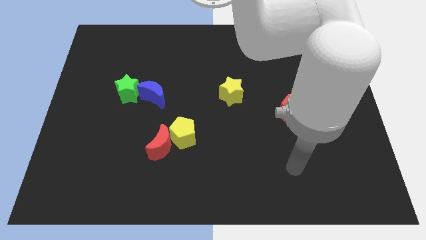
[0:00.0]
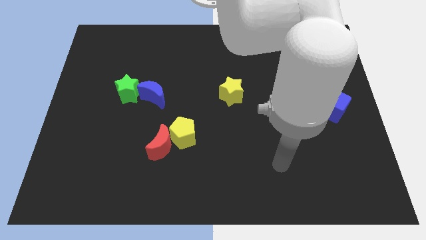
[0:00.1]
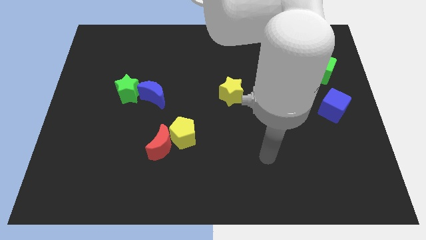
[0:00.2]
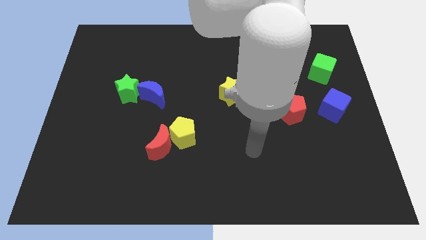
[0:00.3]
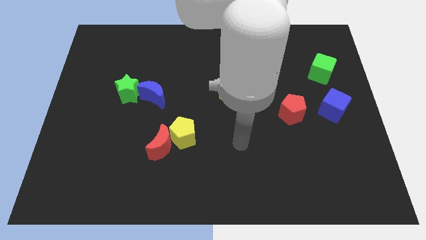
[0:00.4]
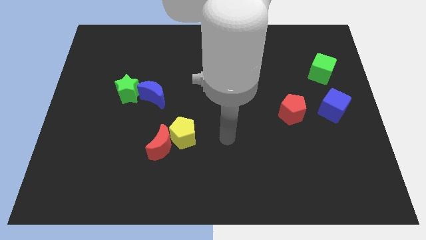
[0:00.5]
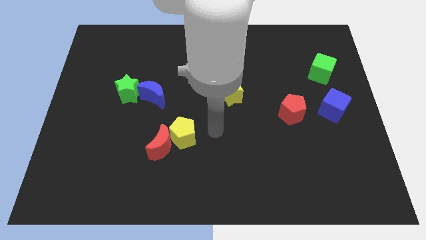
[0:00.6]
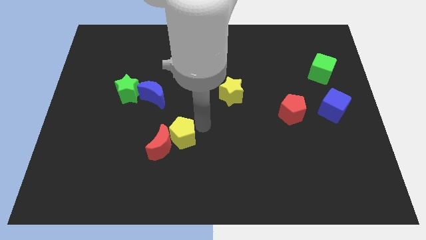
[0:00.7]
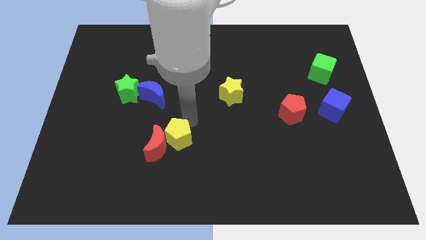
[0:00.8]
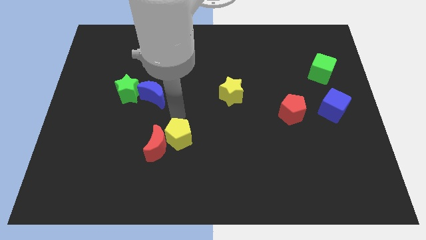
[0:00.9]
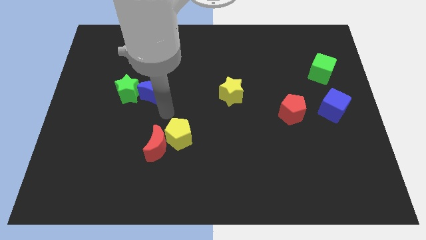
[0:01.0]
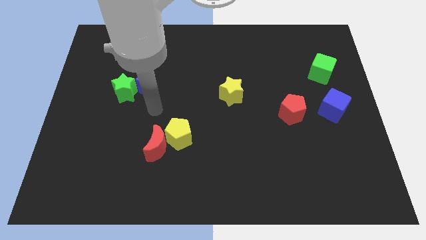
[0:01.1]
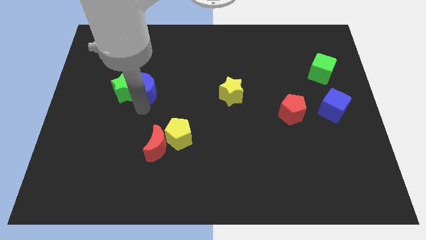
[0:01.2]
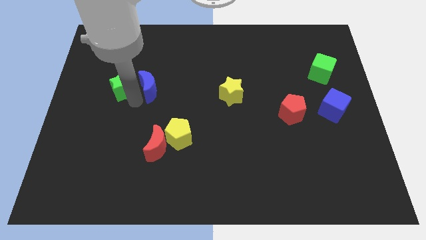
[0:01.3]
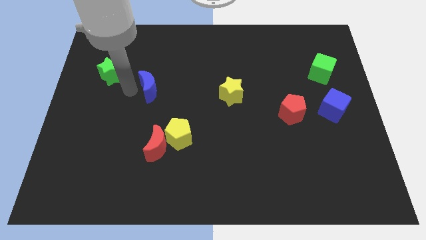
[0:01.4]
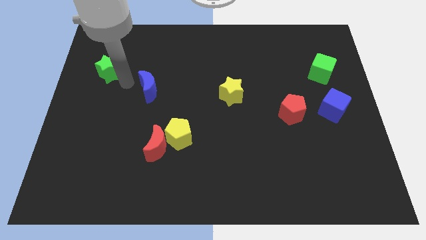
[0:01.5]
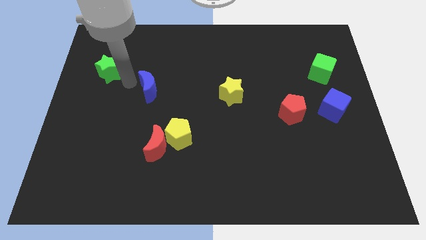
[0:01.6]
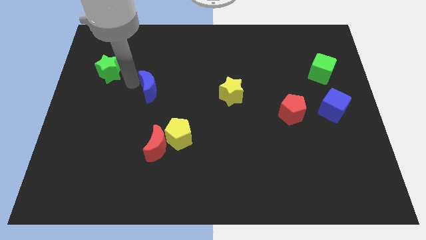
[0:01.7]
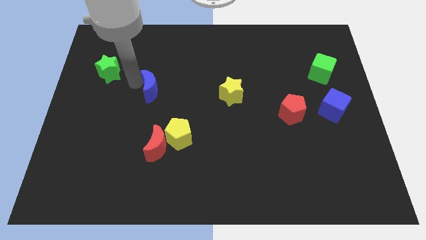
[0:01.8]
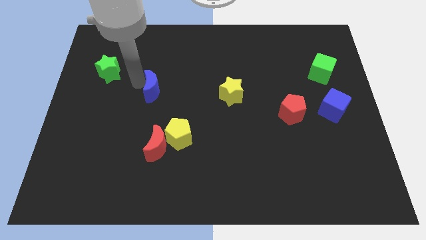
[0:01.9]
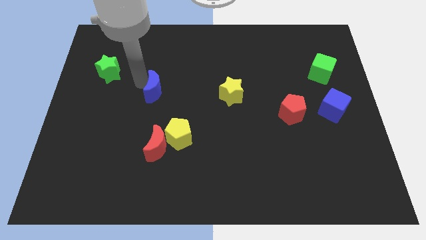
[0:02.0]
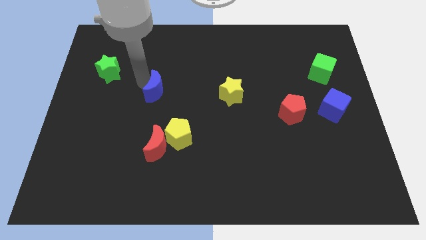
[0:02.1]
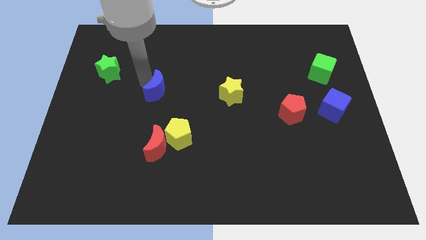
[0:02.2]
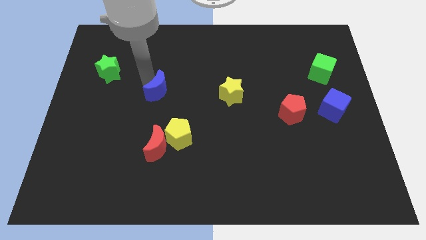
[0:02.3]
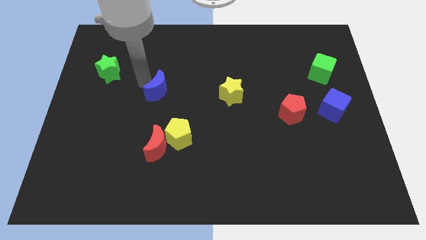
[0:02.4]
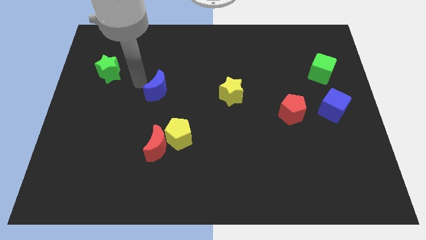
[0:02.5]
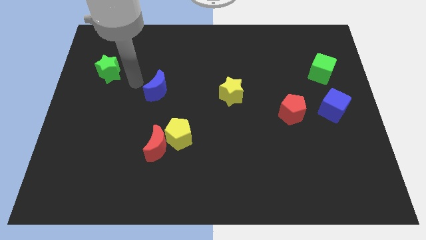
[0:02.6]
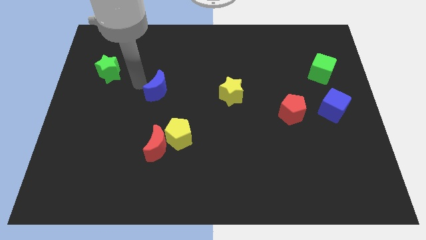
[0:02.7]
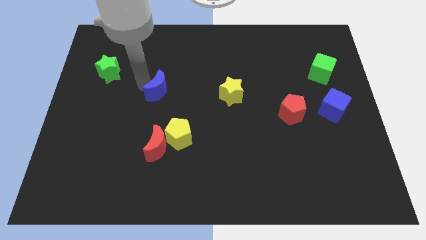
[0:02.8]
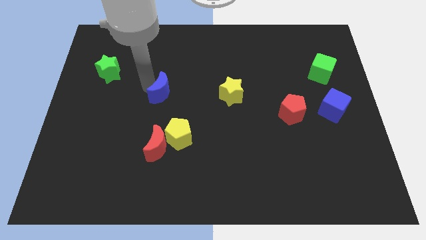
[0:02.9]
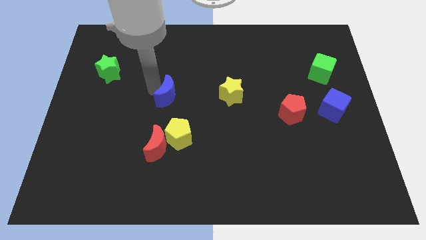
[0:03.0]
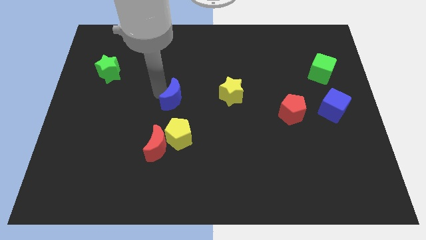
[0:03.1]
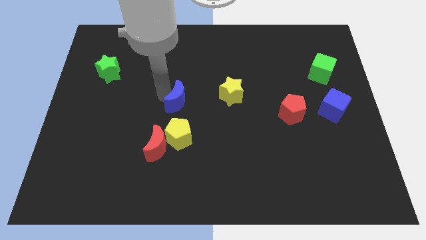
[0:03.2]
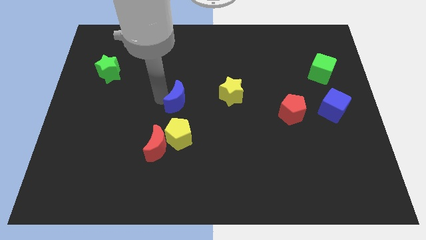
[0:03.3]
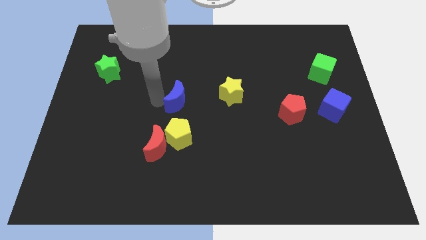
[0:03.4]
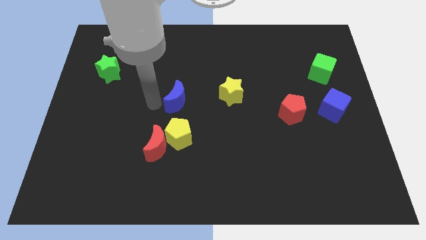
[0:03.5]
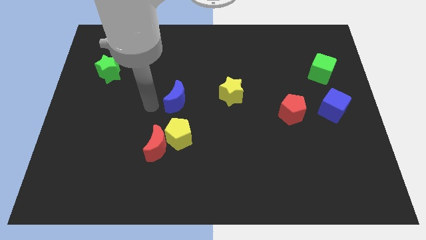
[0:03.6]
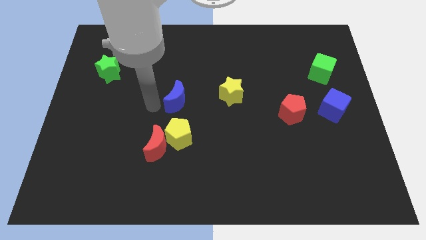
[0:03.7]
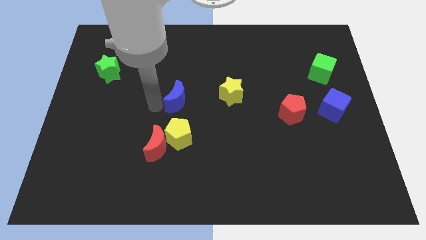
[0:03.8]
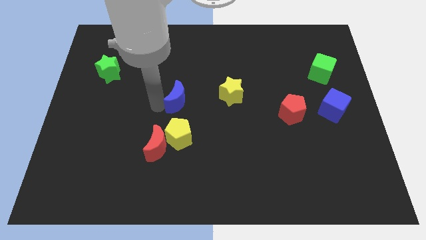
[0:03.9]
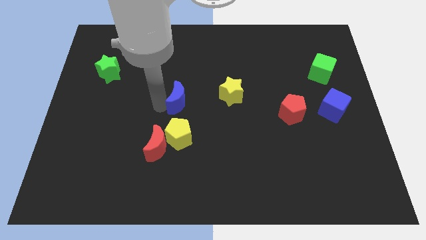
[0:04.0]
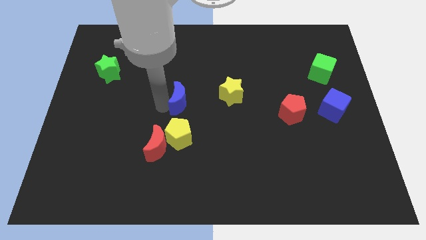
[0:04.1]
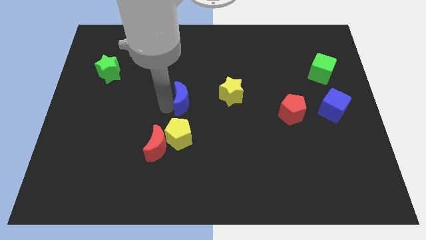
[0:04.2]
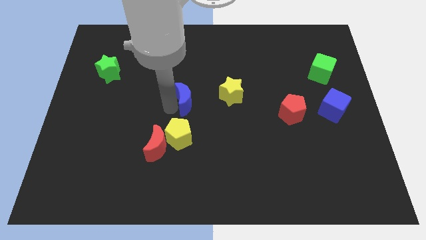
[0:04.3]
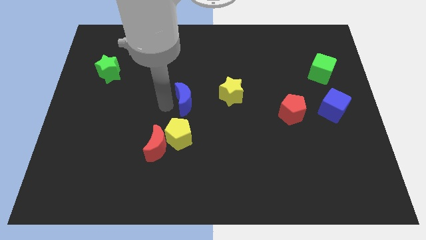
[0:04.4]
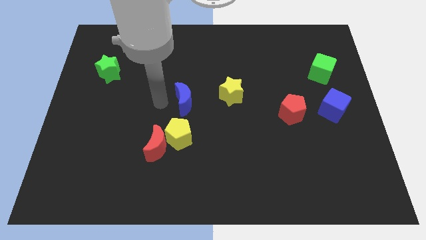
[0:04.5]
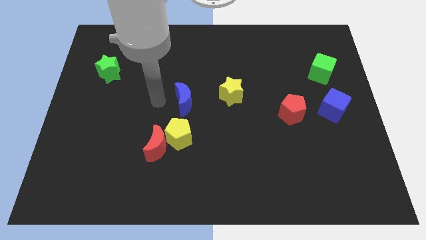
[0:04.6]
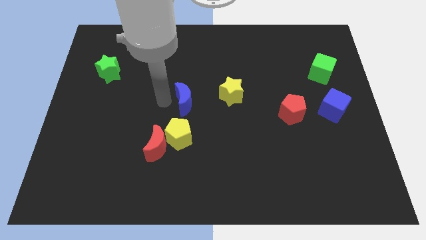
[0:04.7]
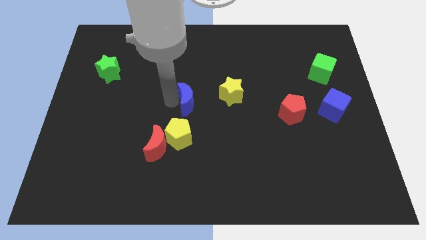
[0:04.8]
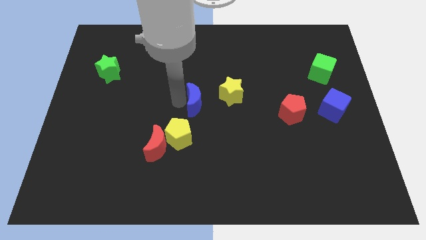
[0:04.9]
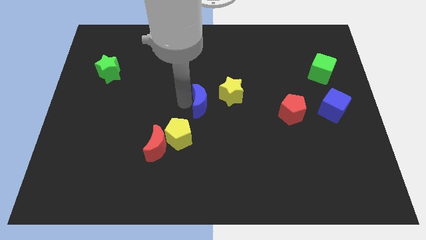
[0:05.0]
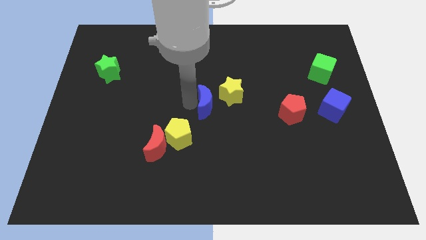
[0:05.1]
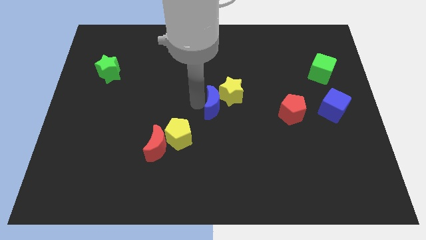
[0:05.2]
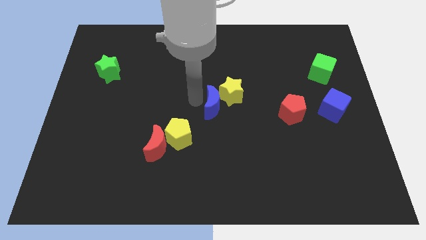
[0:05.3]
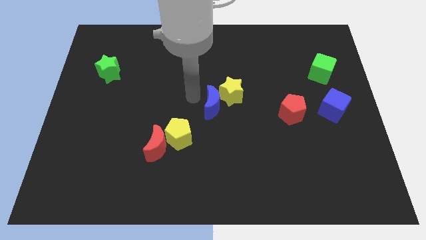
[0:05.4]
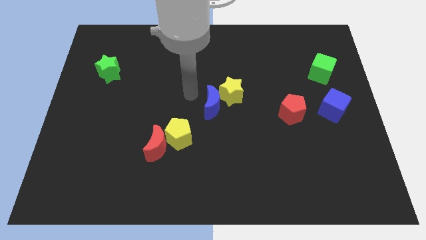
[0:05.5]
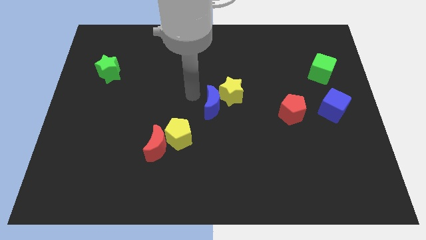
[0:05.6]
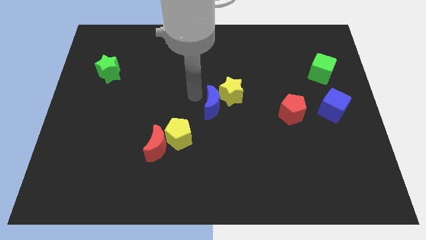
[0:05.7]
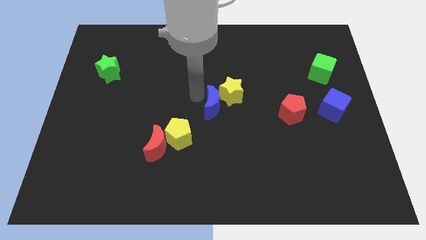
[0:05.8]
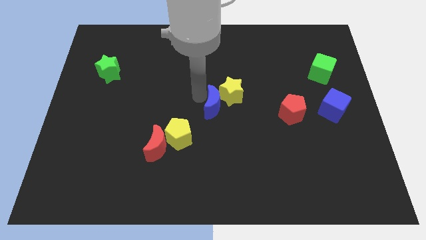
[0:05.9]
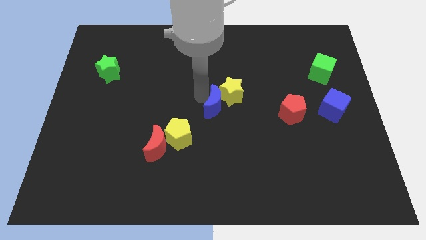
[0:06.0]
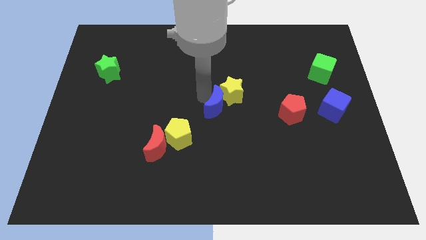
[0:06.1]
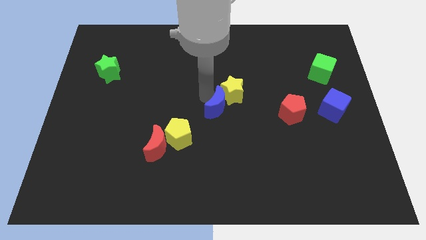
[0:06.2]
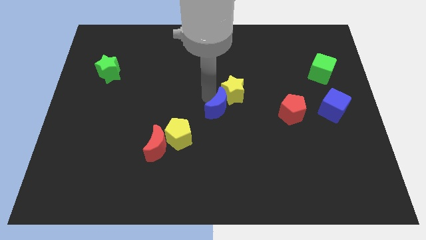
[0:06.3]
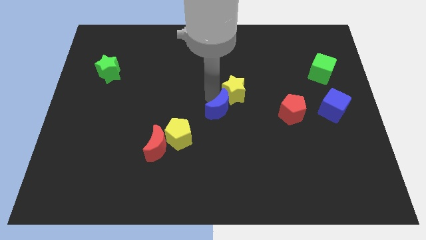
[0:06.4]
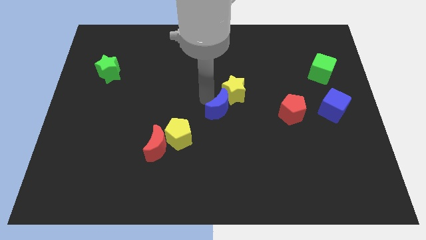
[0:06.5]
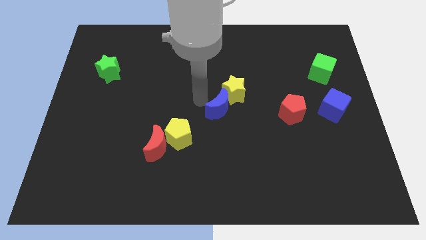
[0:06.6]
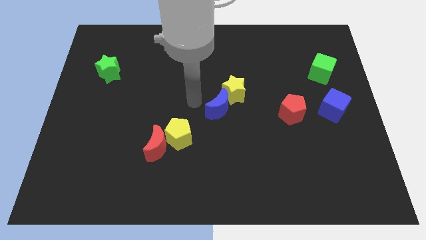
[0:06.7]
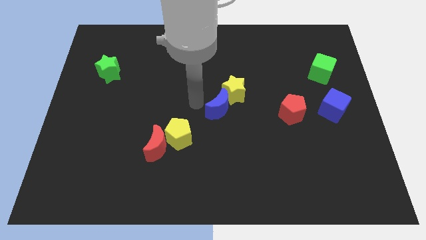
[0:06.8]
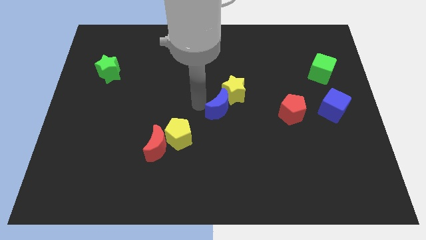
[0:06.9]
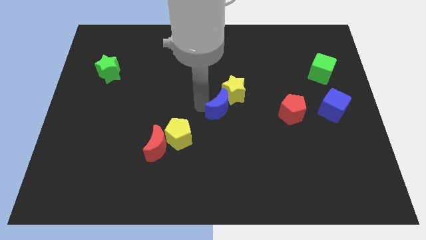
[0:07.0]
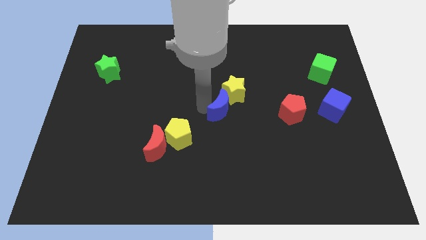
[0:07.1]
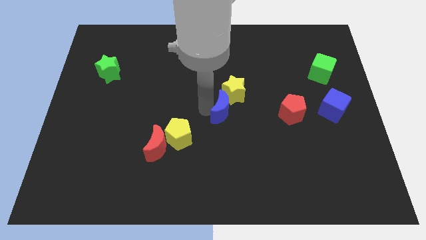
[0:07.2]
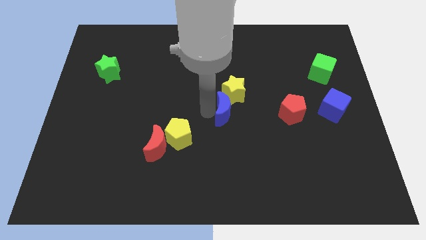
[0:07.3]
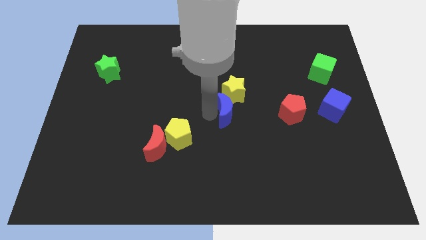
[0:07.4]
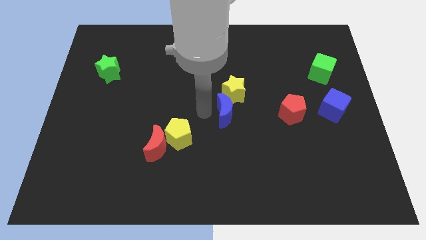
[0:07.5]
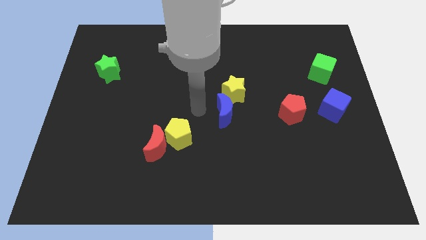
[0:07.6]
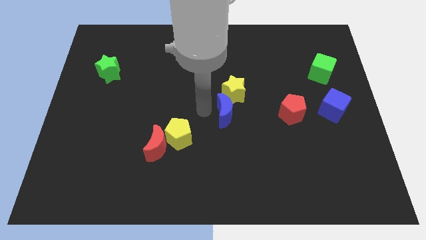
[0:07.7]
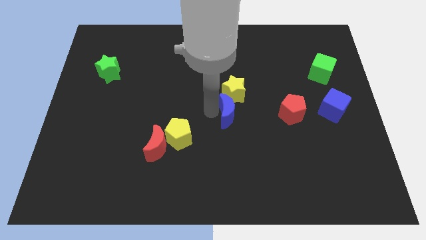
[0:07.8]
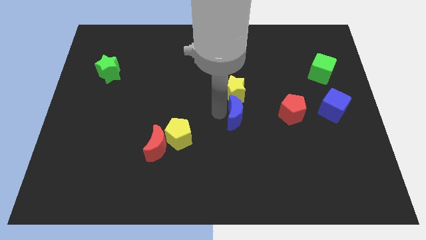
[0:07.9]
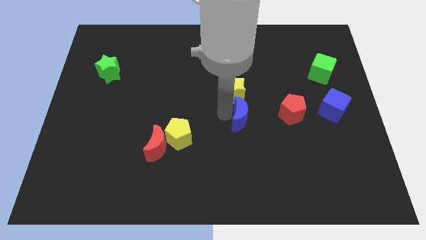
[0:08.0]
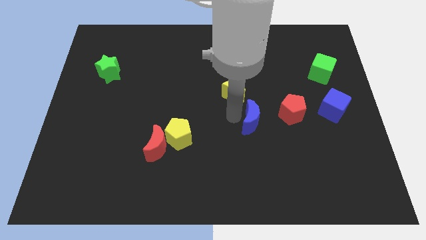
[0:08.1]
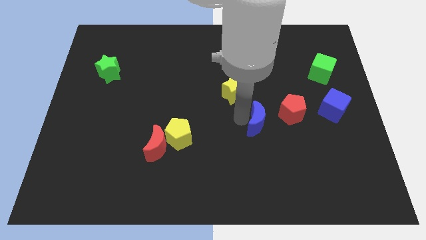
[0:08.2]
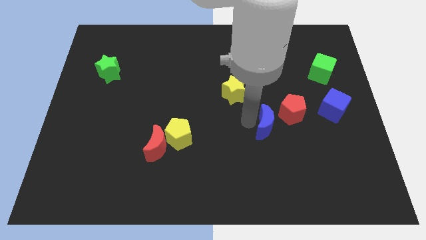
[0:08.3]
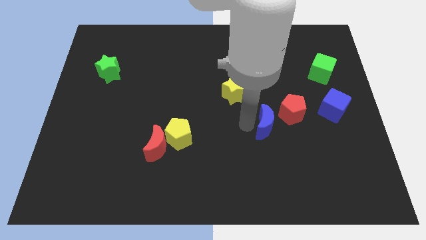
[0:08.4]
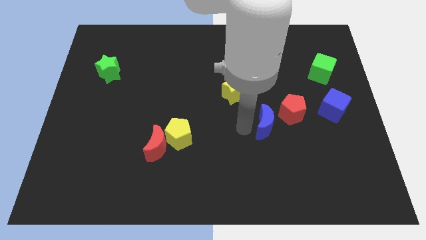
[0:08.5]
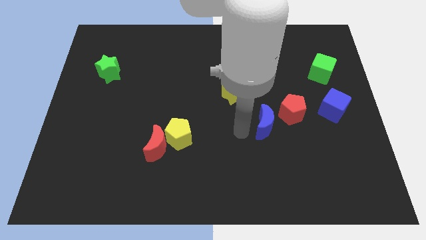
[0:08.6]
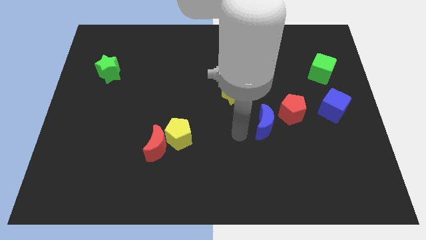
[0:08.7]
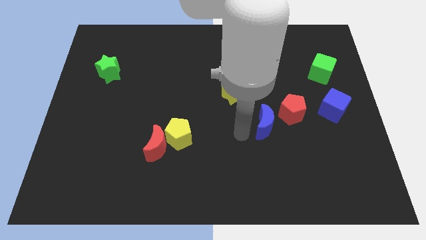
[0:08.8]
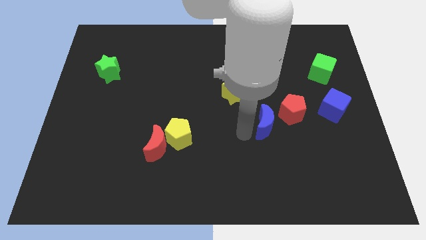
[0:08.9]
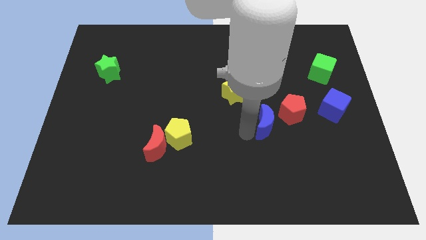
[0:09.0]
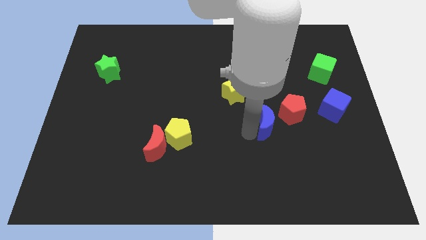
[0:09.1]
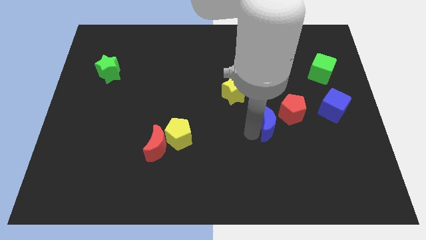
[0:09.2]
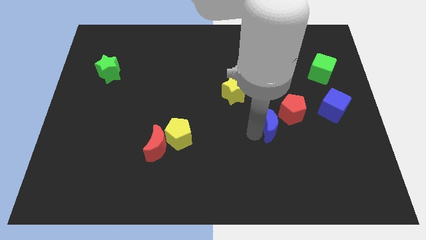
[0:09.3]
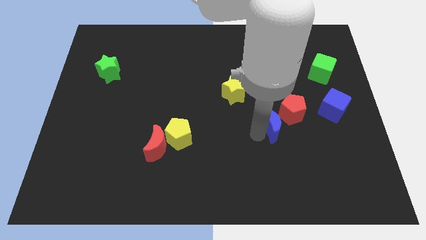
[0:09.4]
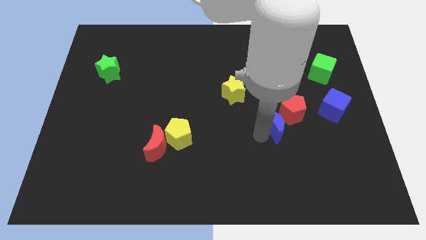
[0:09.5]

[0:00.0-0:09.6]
push the blue moon towards the red pentagon
